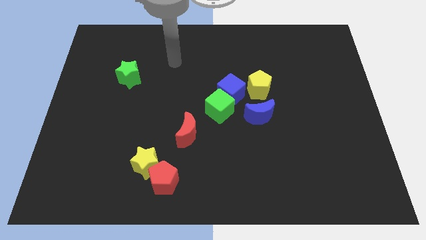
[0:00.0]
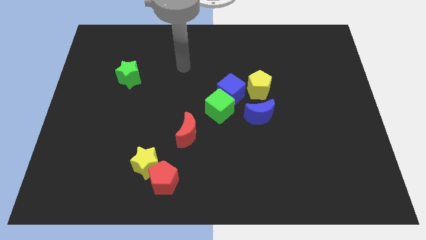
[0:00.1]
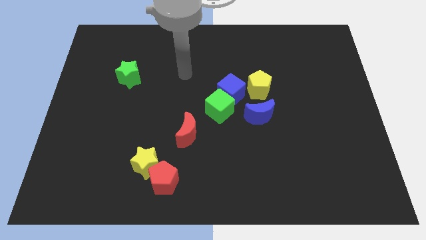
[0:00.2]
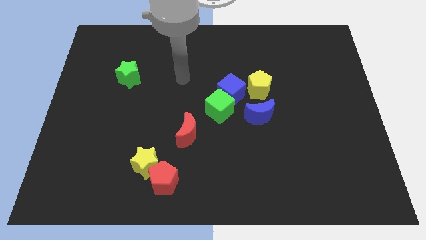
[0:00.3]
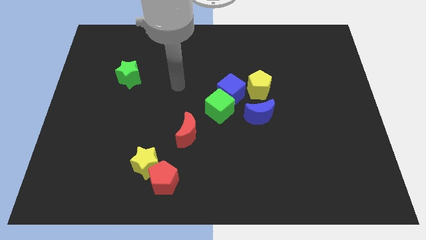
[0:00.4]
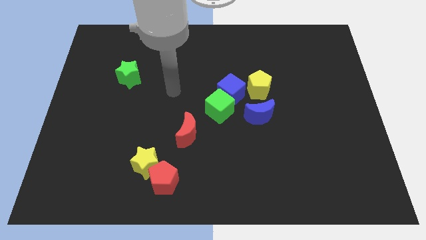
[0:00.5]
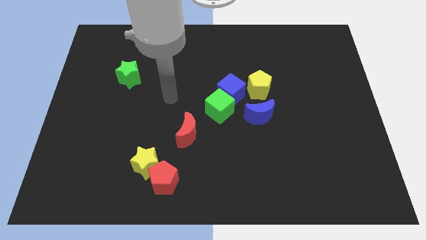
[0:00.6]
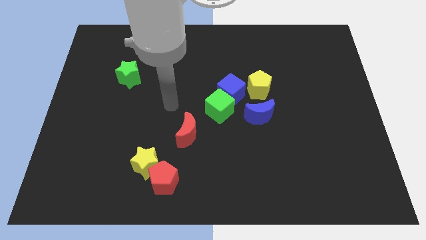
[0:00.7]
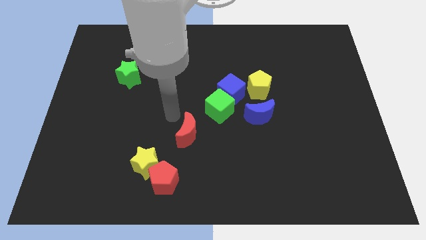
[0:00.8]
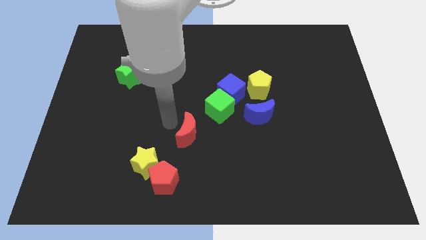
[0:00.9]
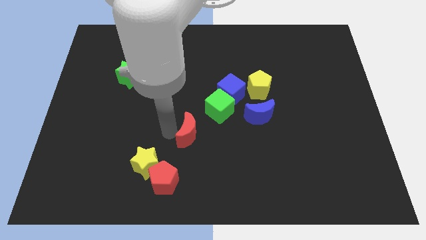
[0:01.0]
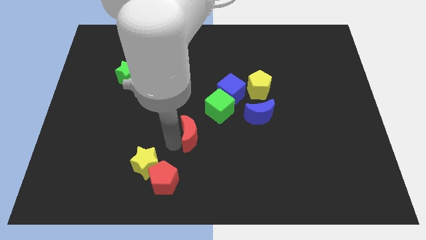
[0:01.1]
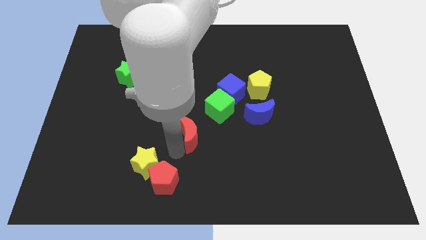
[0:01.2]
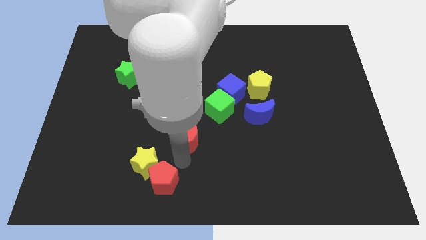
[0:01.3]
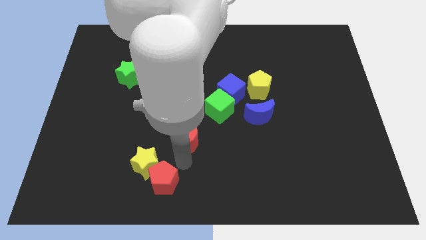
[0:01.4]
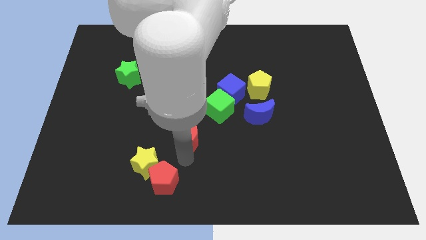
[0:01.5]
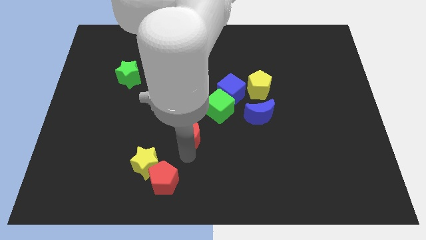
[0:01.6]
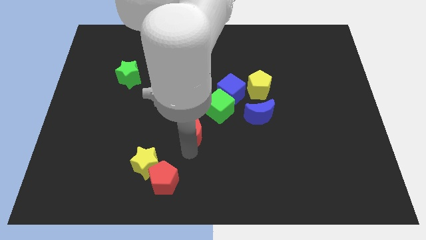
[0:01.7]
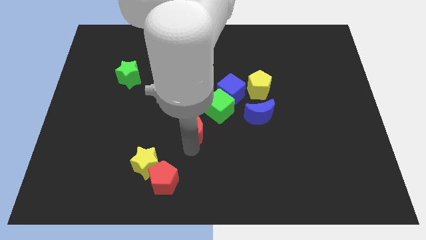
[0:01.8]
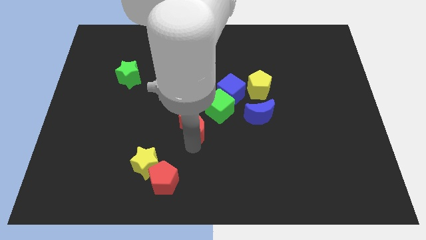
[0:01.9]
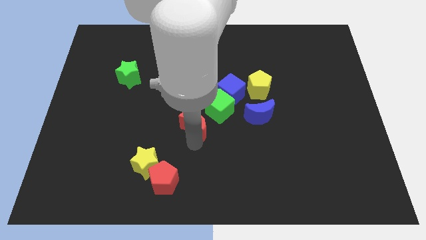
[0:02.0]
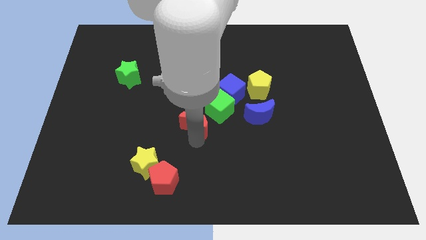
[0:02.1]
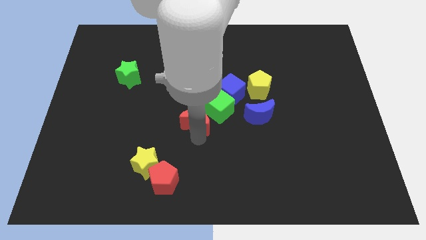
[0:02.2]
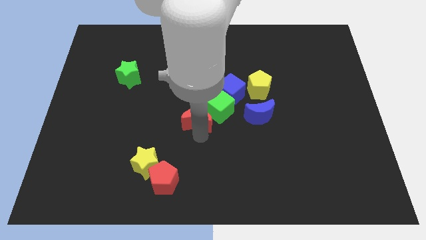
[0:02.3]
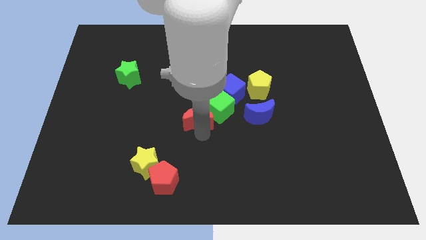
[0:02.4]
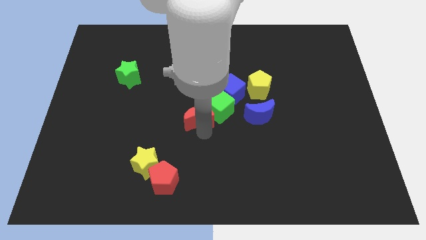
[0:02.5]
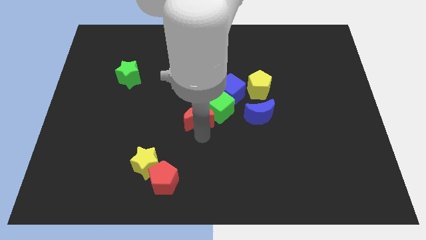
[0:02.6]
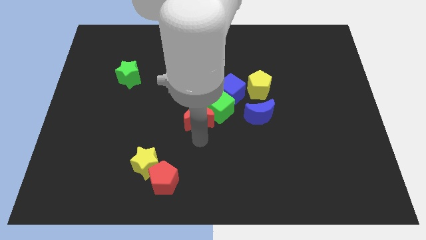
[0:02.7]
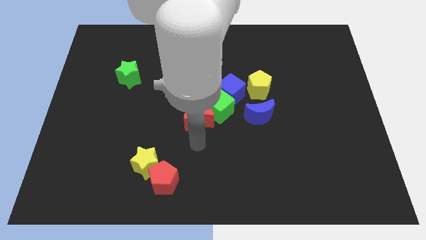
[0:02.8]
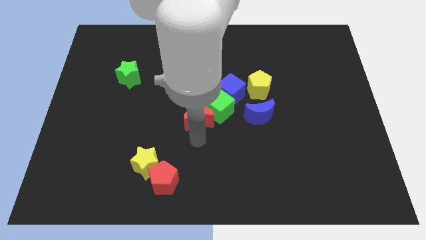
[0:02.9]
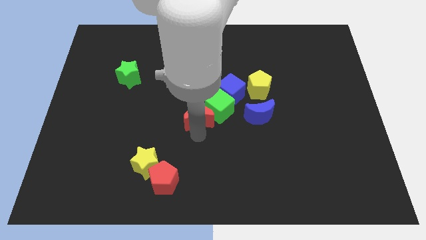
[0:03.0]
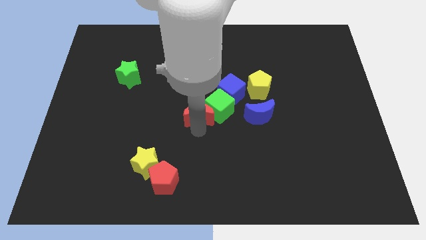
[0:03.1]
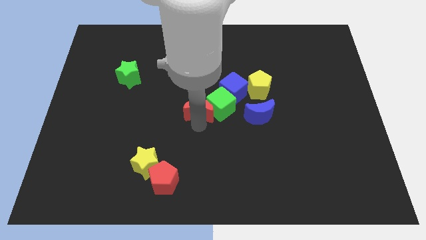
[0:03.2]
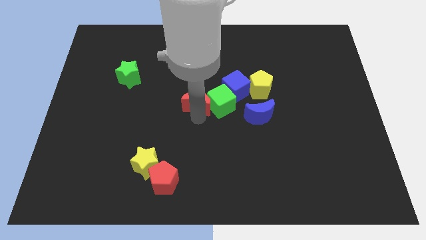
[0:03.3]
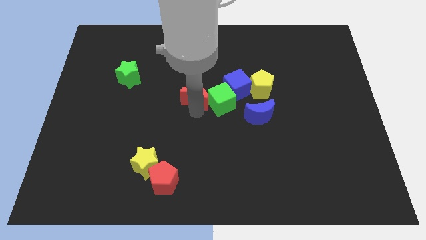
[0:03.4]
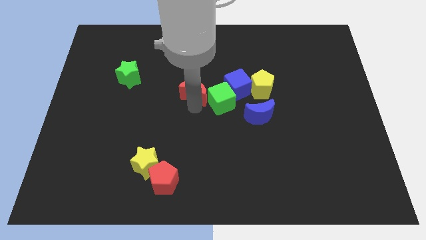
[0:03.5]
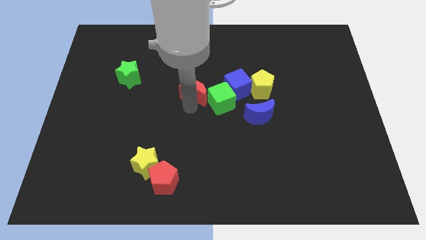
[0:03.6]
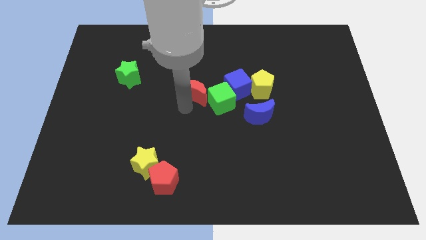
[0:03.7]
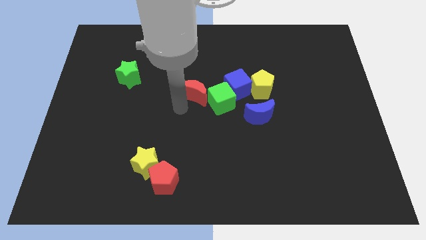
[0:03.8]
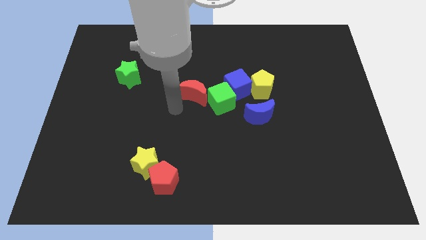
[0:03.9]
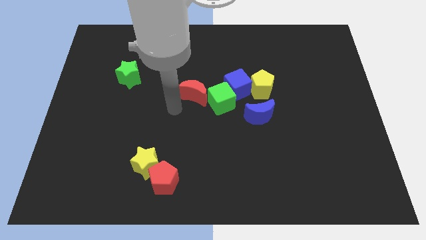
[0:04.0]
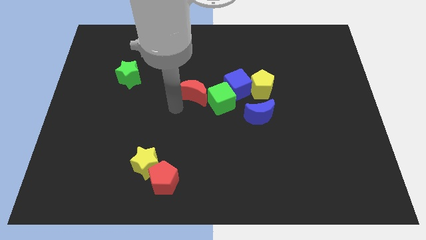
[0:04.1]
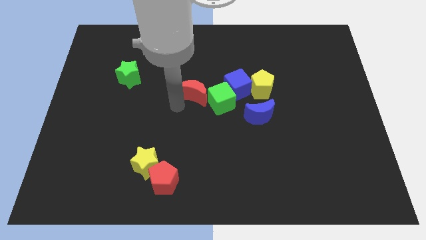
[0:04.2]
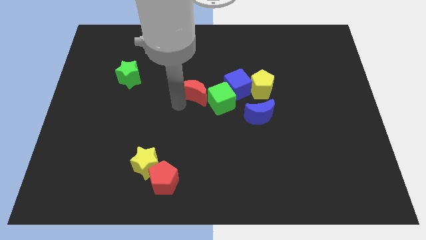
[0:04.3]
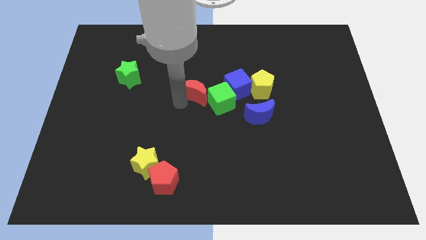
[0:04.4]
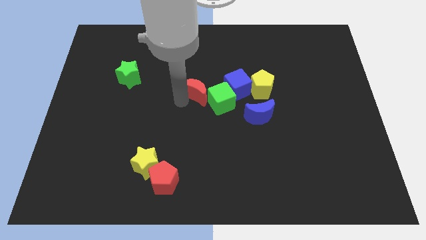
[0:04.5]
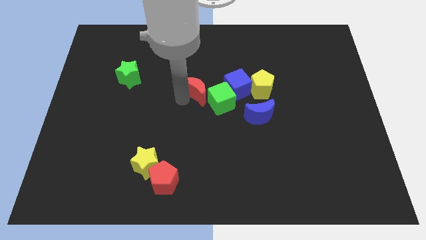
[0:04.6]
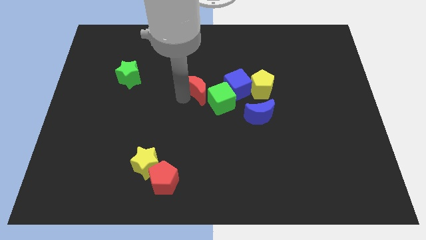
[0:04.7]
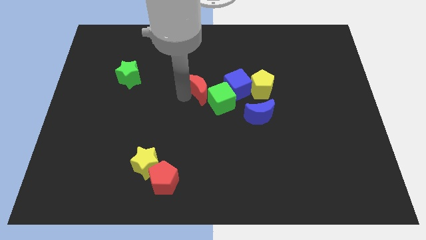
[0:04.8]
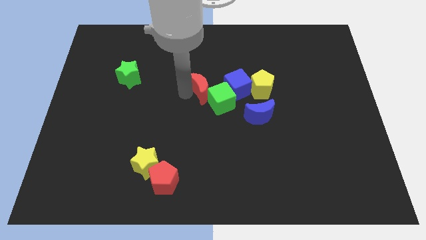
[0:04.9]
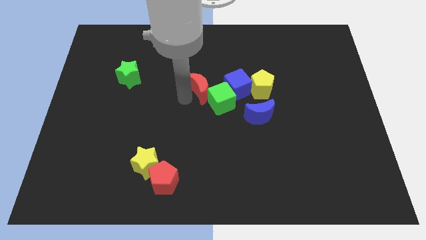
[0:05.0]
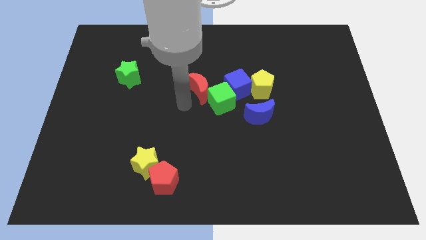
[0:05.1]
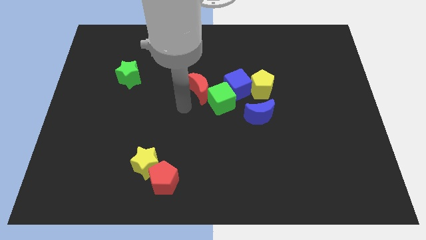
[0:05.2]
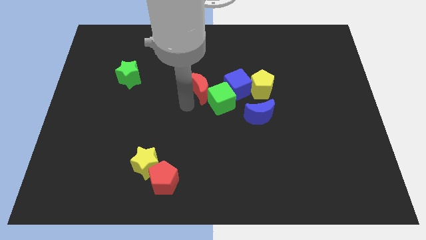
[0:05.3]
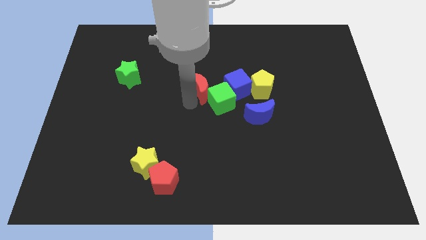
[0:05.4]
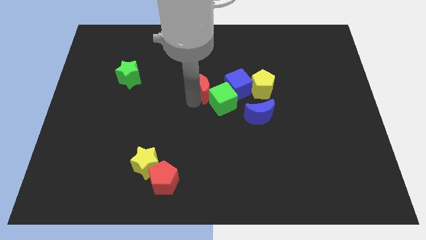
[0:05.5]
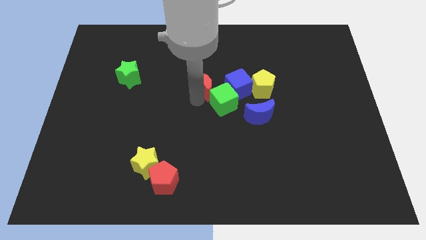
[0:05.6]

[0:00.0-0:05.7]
push the red moon to the top side of the green cube

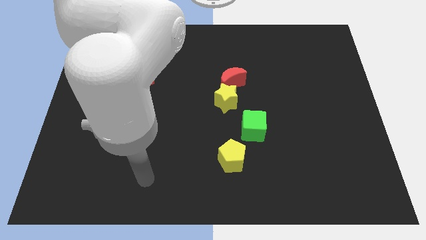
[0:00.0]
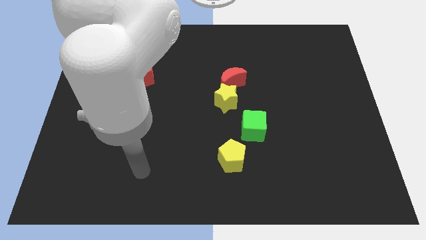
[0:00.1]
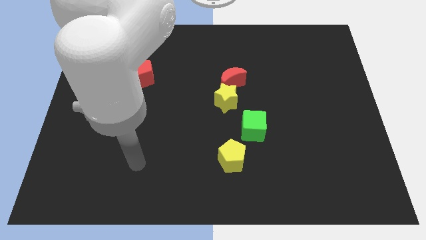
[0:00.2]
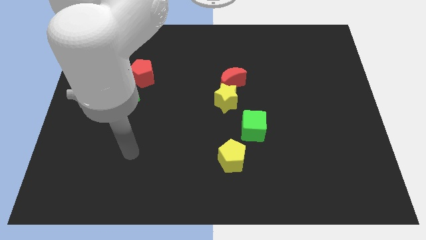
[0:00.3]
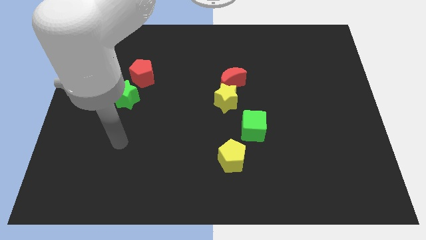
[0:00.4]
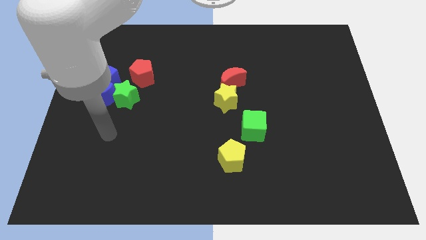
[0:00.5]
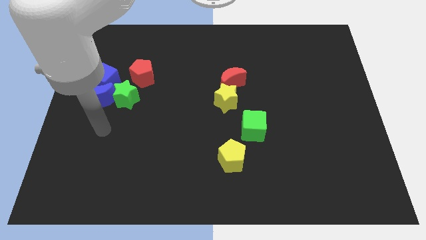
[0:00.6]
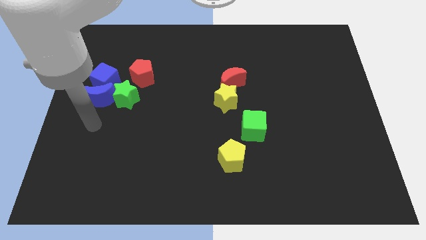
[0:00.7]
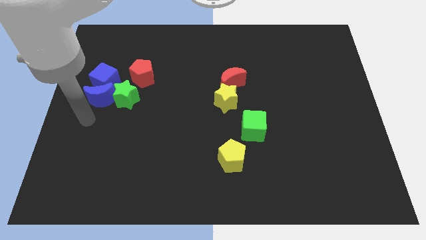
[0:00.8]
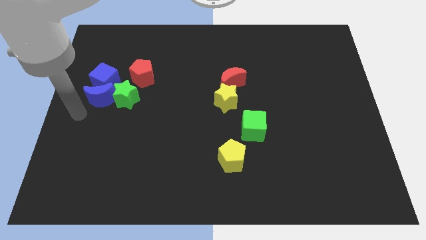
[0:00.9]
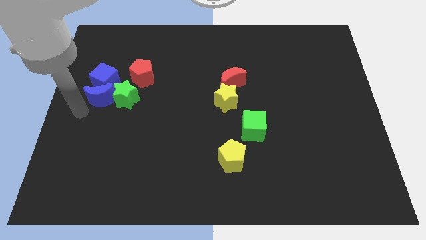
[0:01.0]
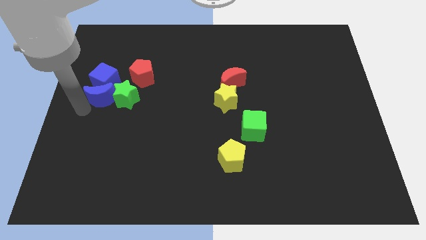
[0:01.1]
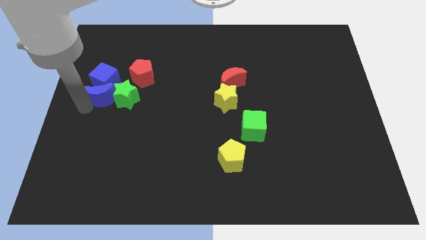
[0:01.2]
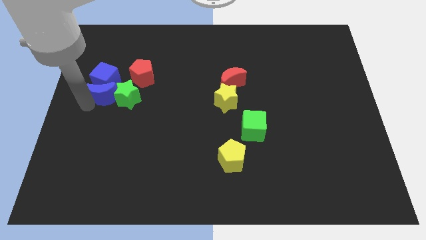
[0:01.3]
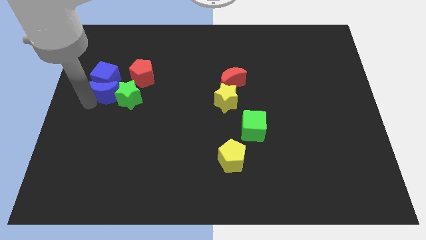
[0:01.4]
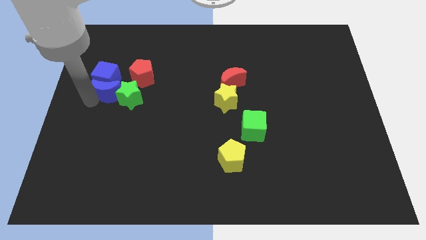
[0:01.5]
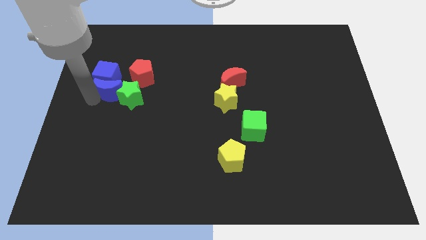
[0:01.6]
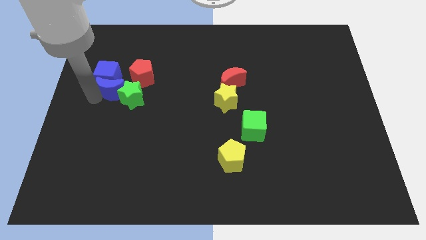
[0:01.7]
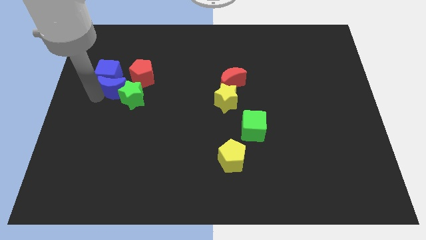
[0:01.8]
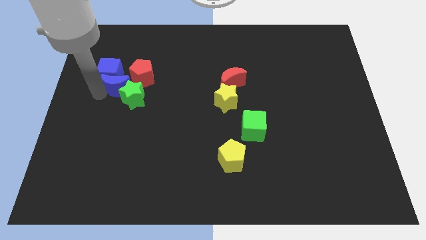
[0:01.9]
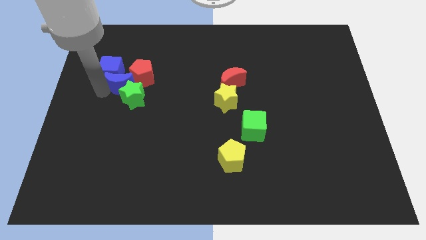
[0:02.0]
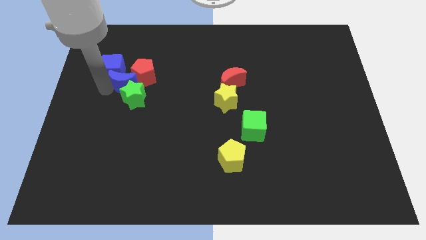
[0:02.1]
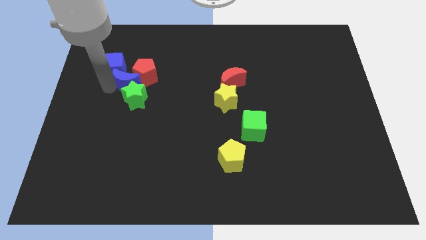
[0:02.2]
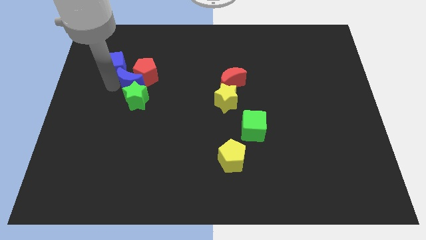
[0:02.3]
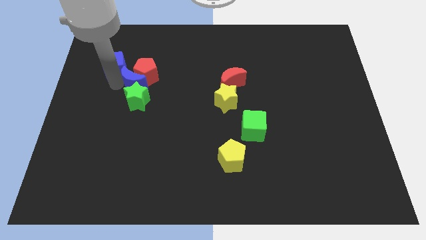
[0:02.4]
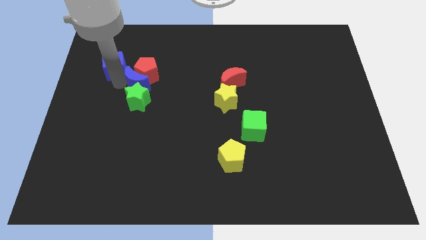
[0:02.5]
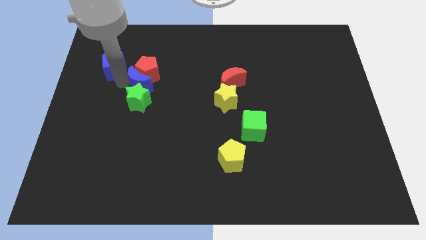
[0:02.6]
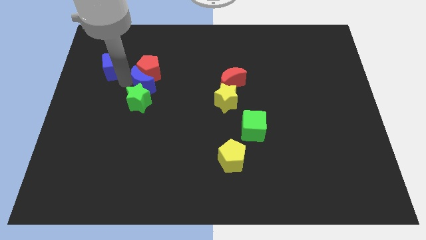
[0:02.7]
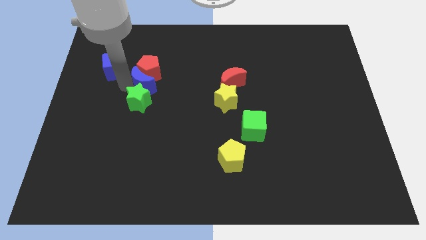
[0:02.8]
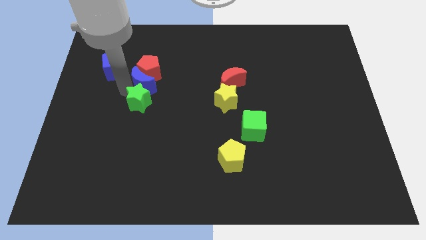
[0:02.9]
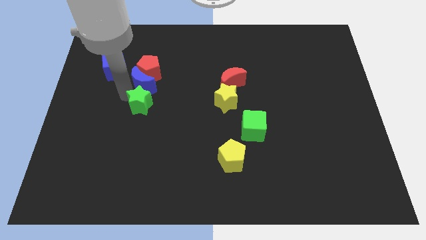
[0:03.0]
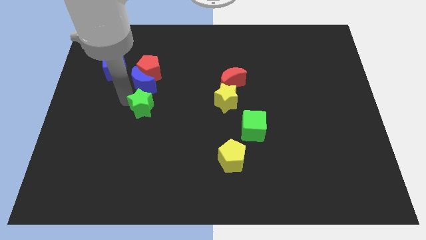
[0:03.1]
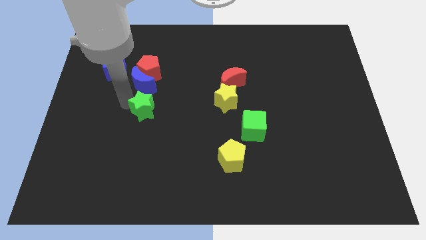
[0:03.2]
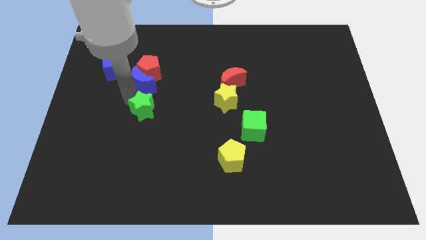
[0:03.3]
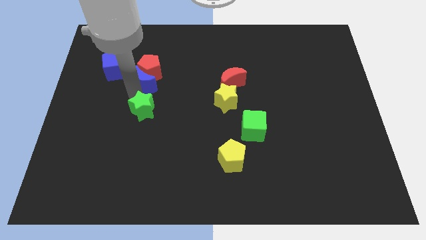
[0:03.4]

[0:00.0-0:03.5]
slide the blue moon just right of the blue cube
